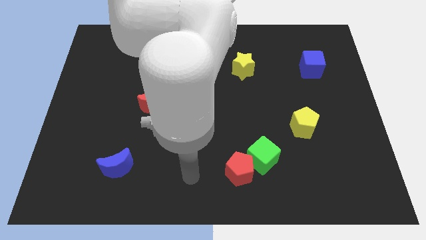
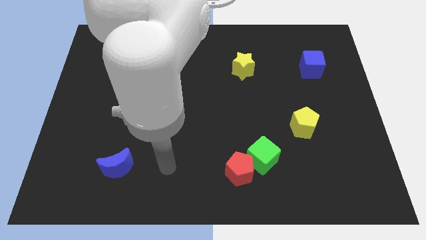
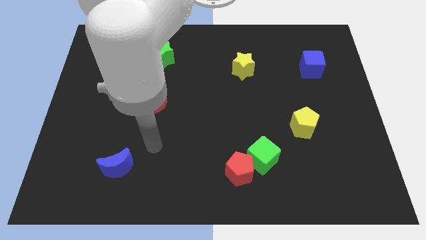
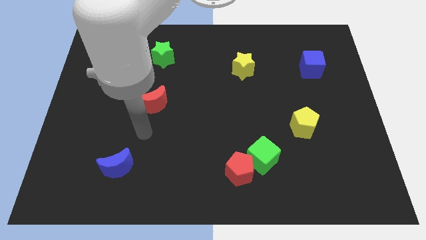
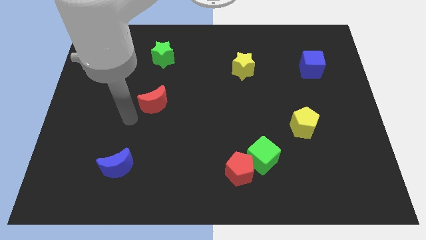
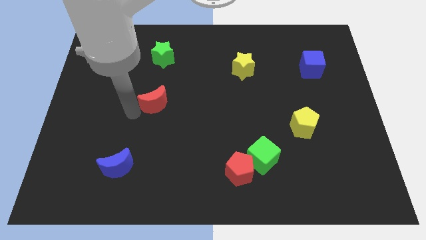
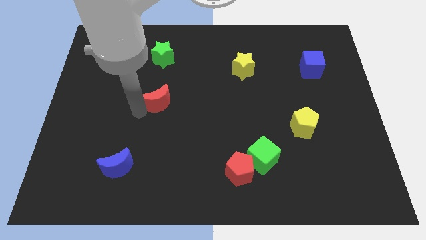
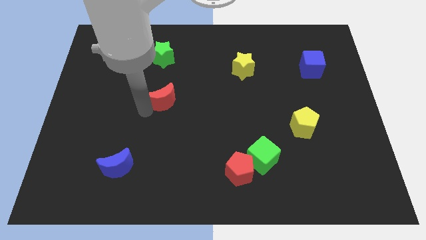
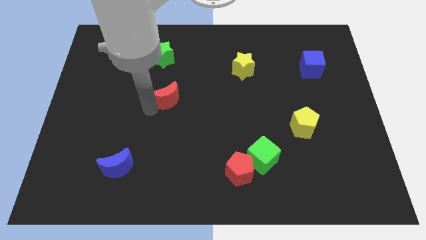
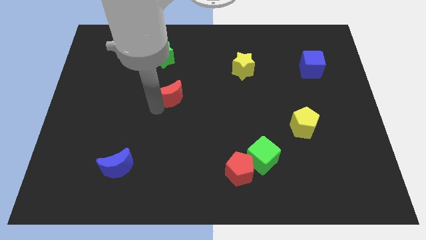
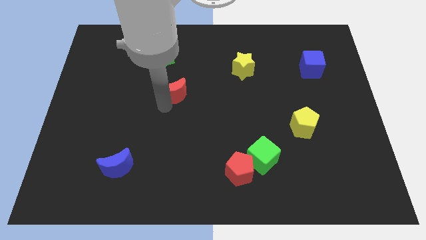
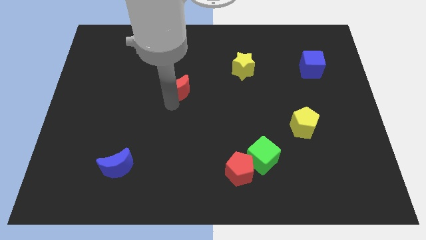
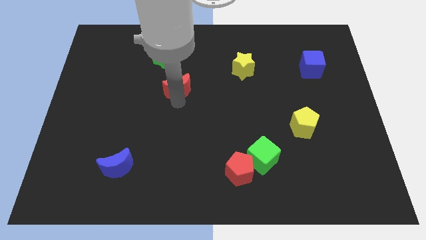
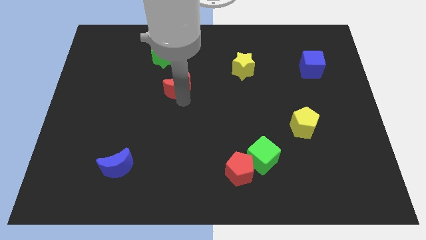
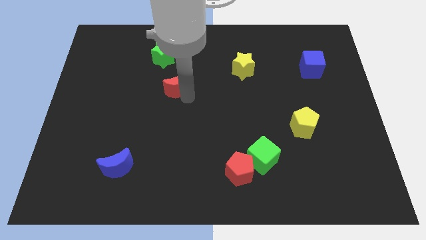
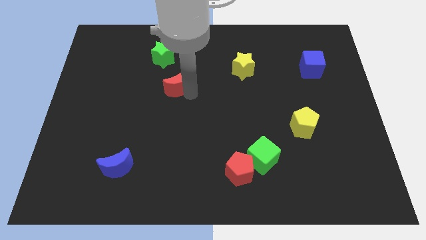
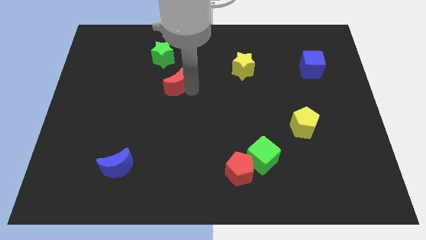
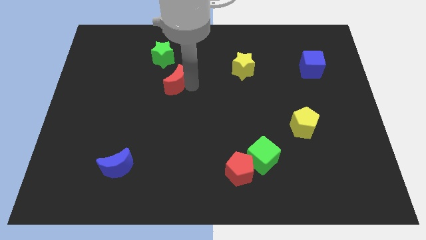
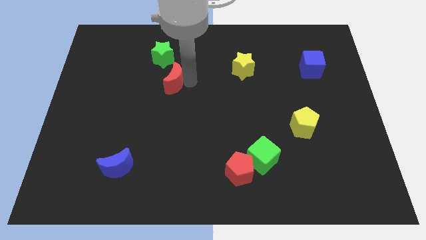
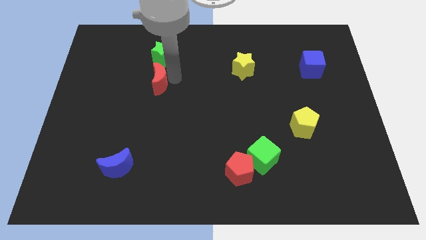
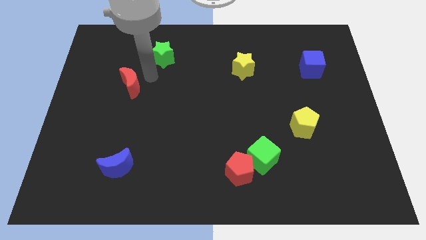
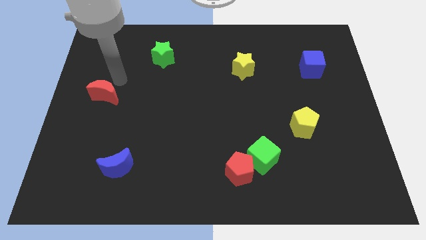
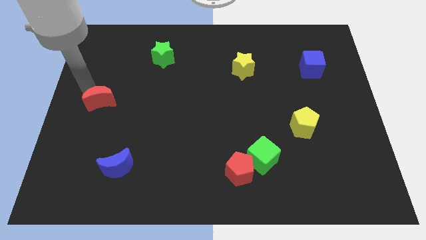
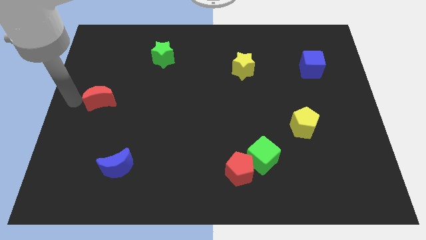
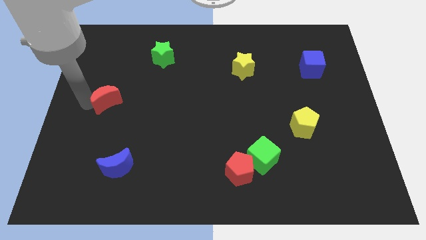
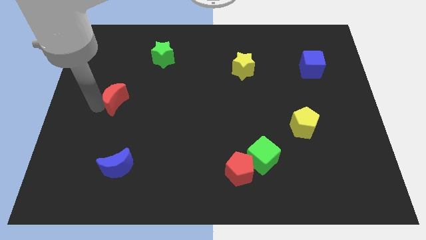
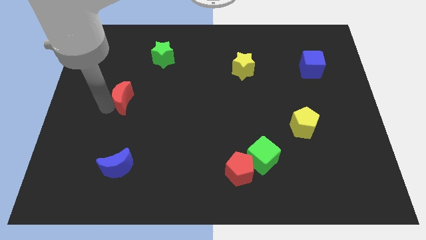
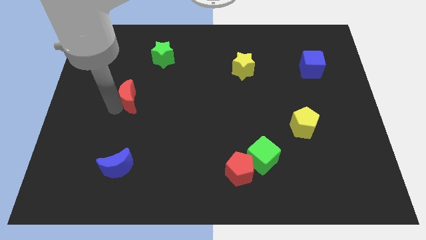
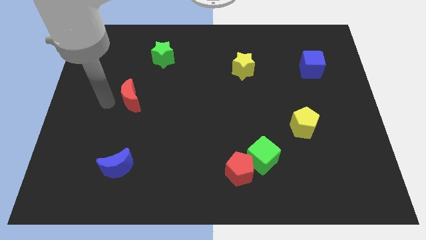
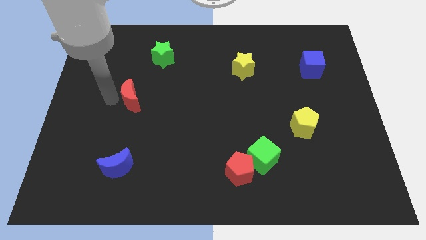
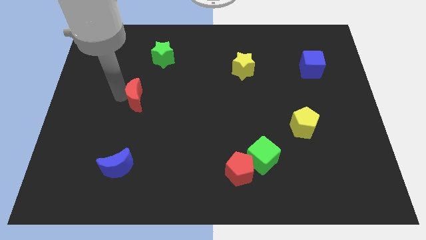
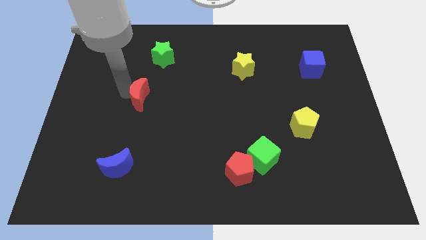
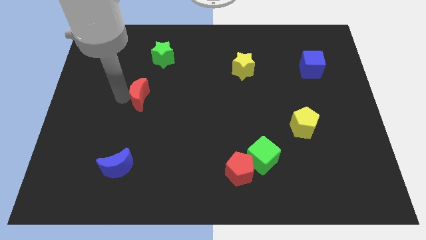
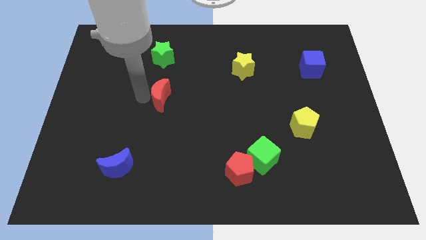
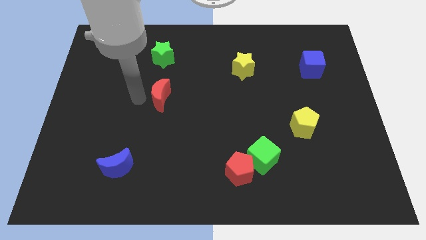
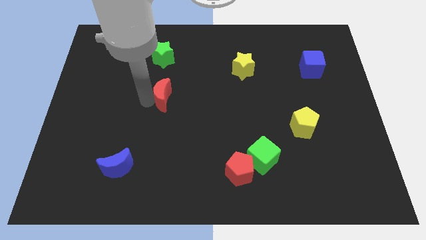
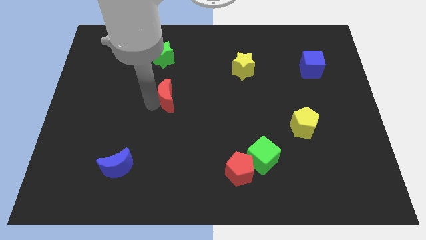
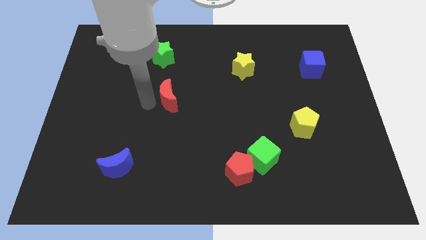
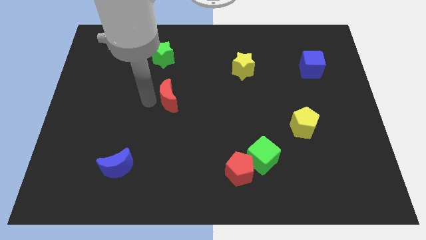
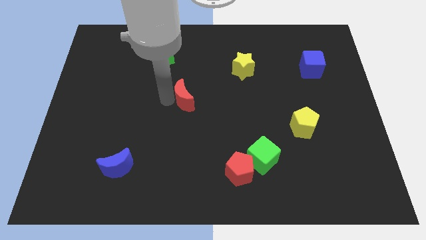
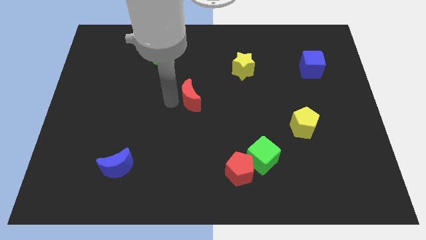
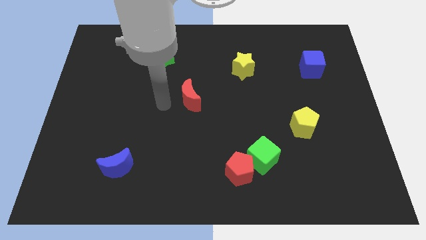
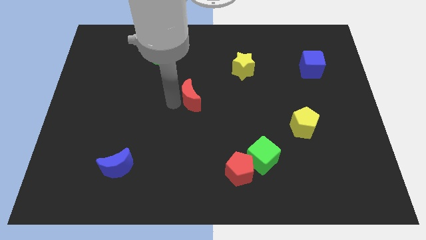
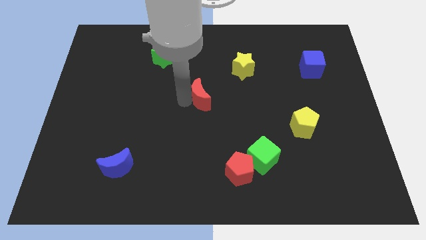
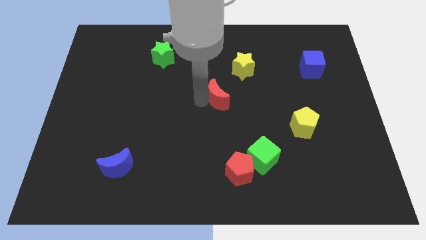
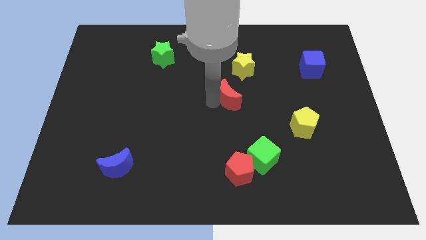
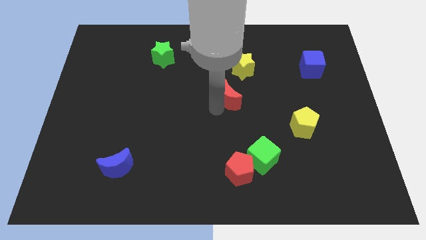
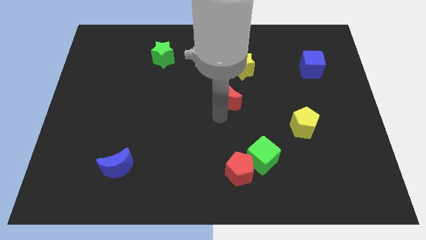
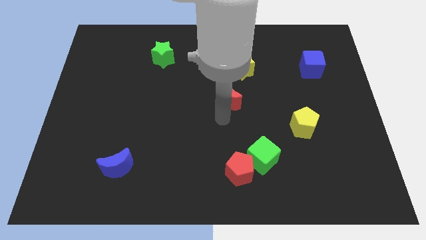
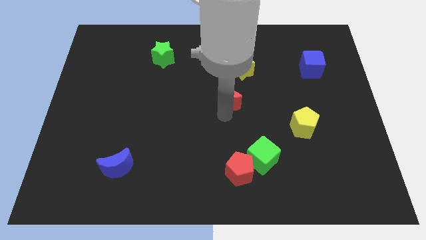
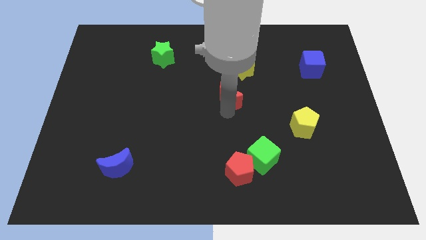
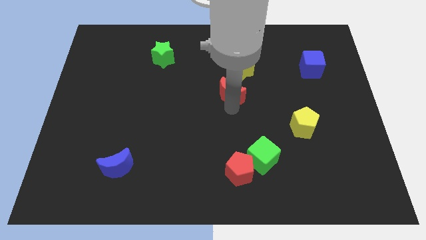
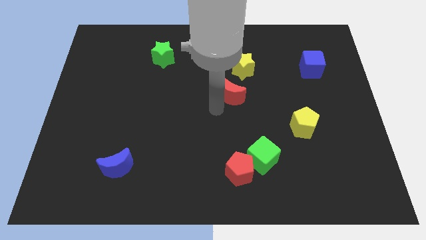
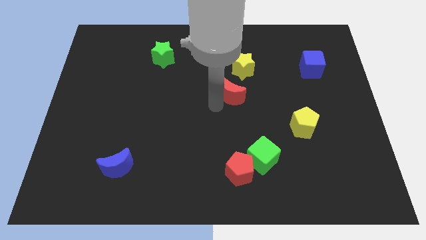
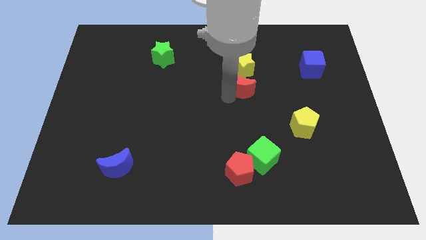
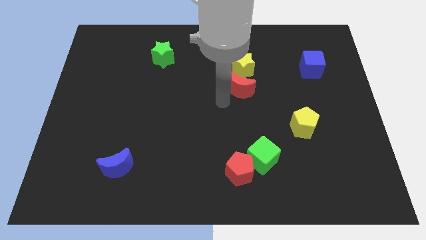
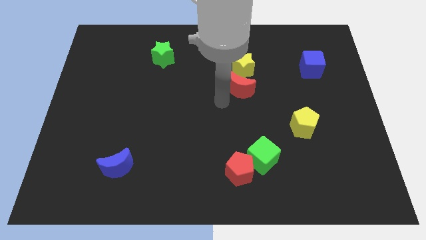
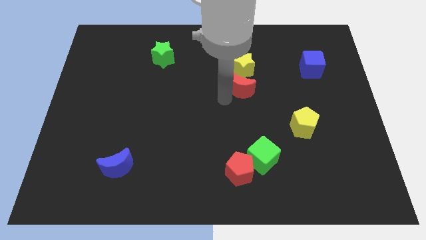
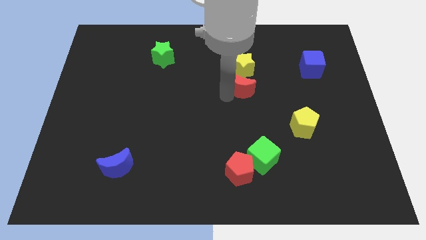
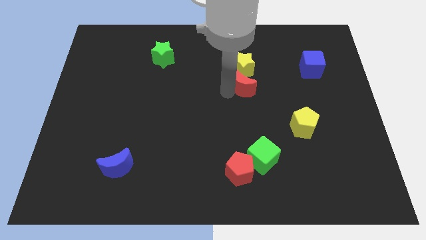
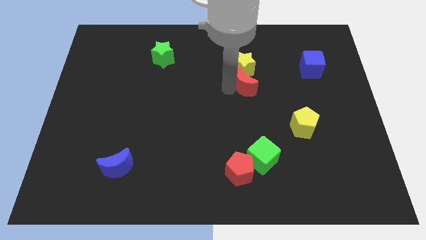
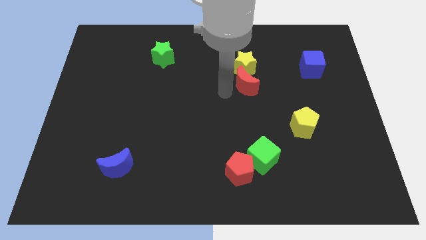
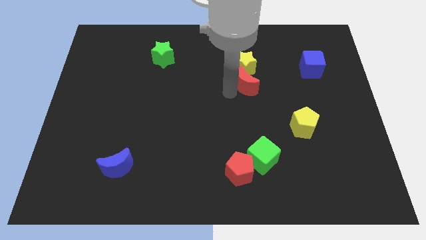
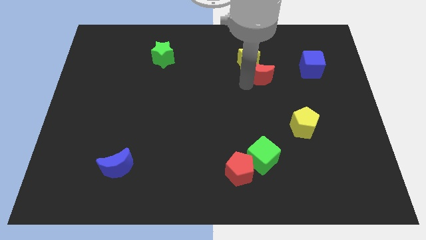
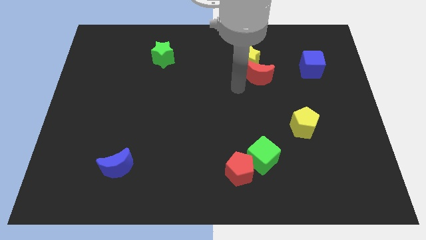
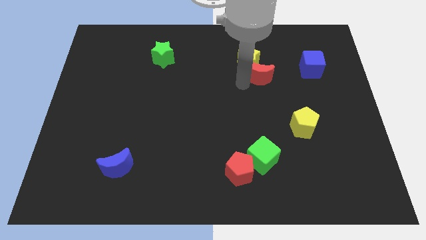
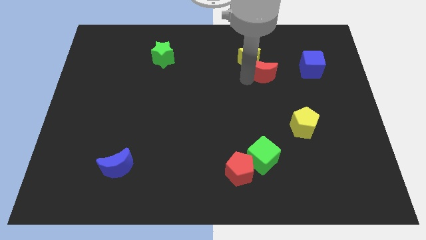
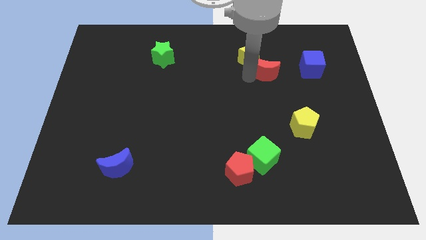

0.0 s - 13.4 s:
move the red moon just right of the yellow star
